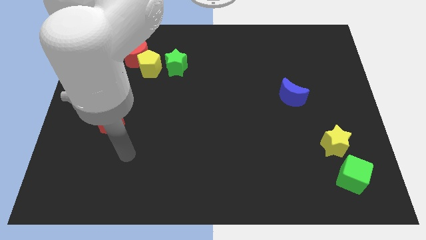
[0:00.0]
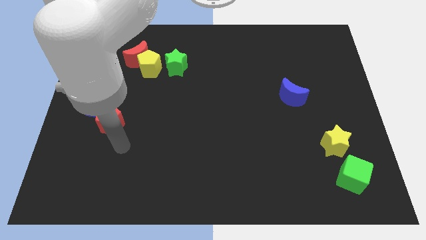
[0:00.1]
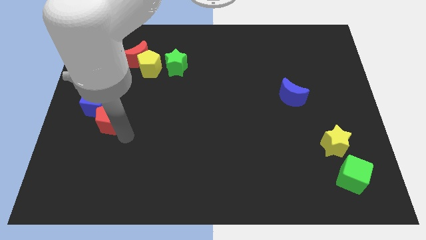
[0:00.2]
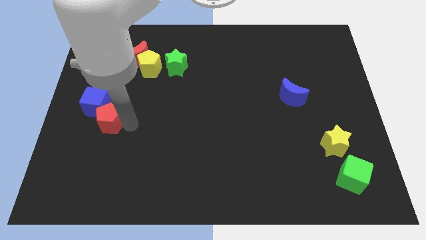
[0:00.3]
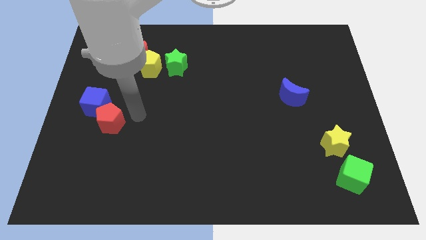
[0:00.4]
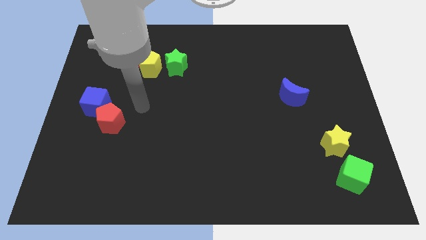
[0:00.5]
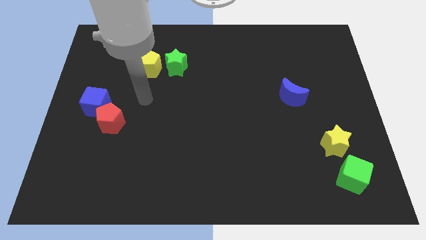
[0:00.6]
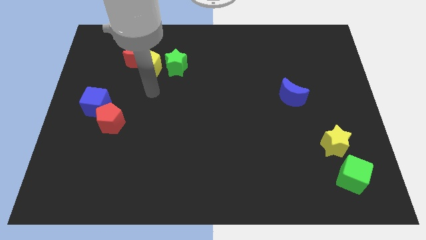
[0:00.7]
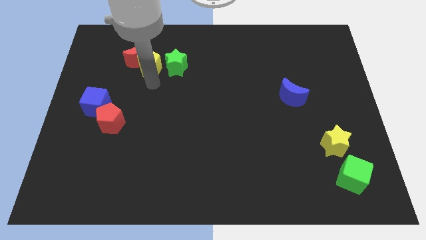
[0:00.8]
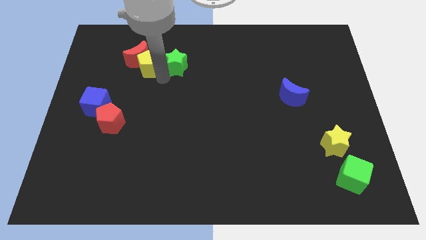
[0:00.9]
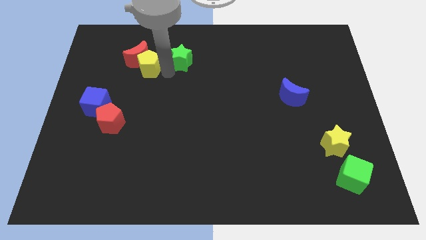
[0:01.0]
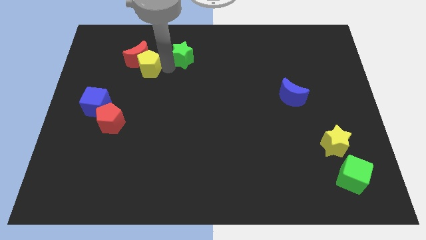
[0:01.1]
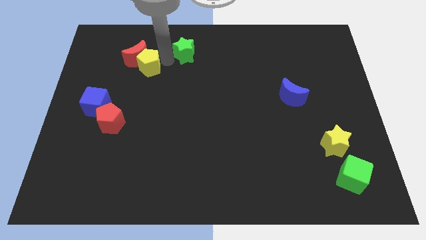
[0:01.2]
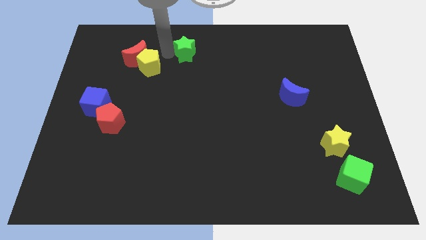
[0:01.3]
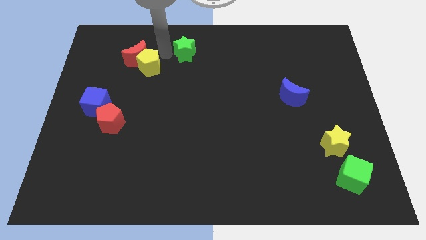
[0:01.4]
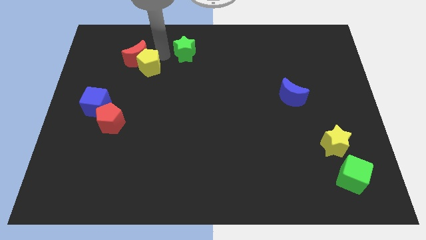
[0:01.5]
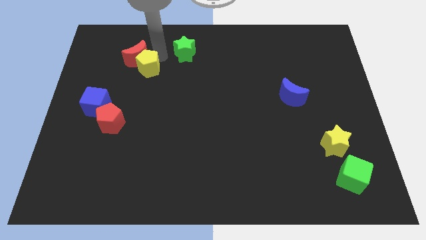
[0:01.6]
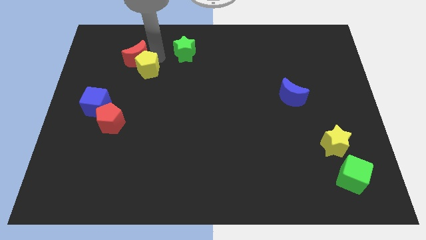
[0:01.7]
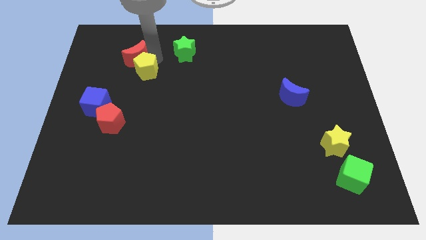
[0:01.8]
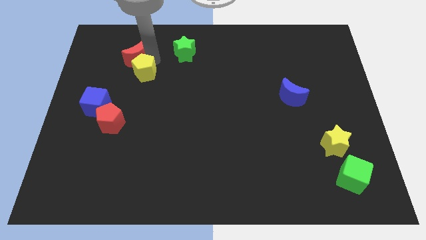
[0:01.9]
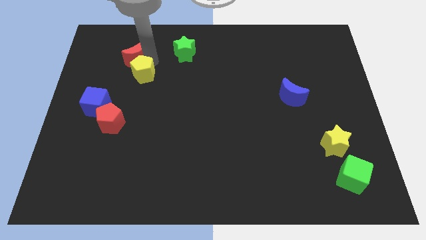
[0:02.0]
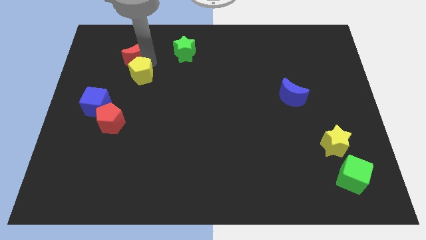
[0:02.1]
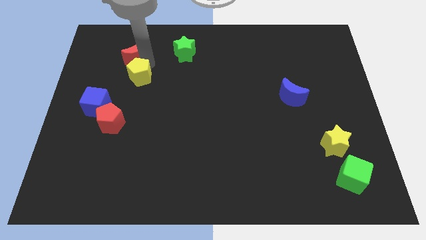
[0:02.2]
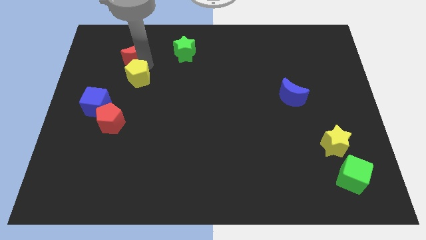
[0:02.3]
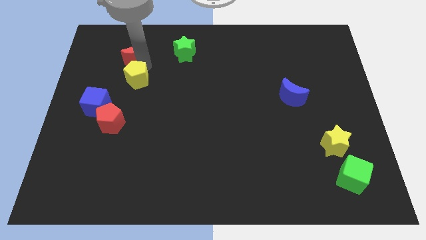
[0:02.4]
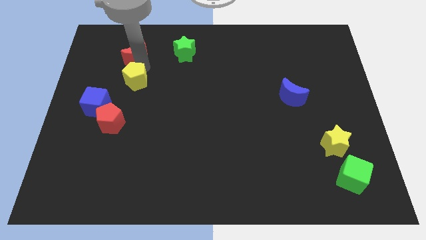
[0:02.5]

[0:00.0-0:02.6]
pull the yellow pentagon apart from the red moon and green star

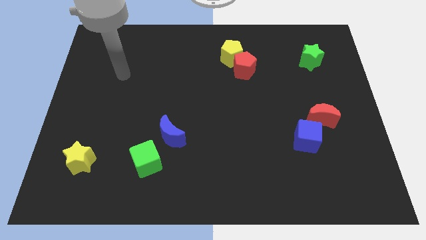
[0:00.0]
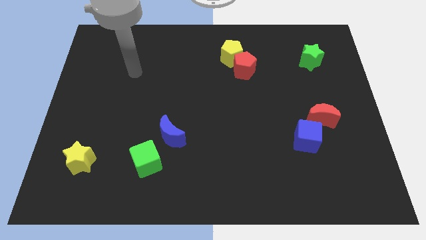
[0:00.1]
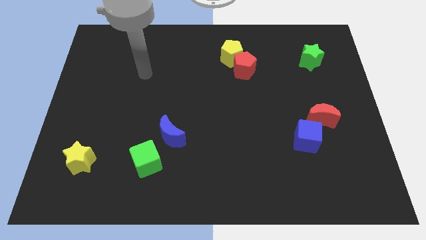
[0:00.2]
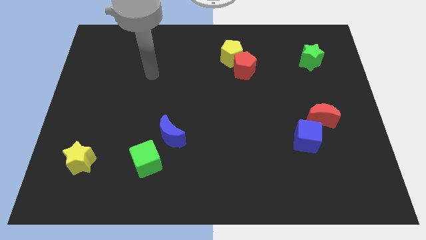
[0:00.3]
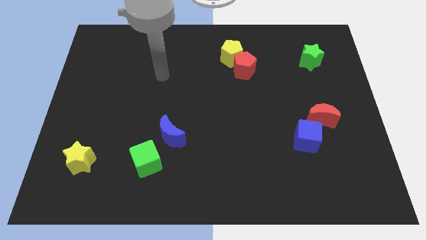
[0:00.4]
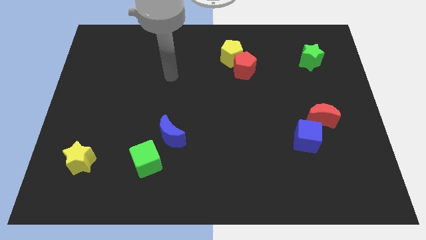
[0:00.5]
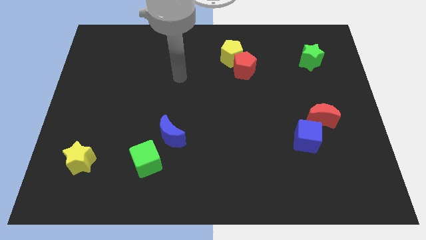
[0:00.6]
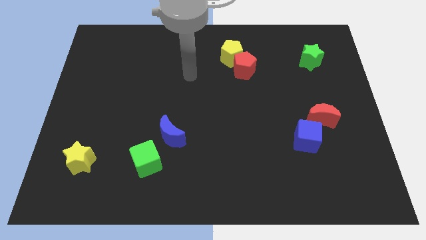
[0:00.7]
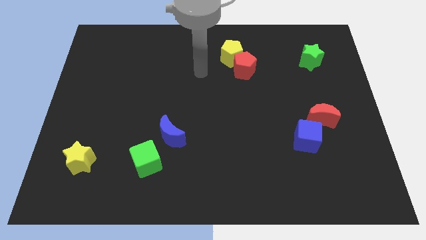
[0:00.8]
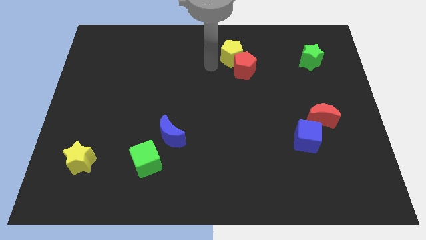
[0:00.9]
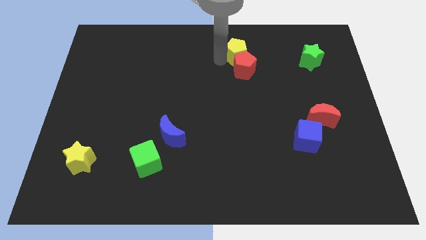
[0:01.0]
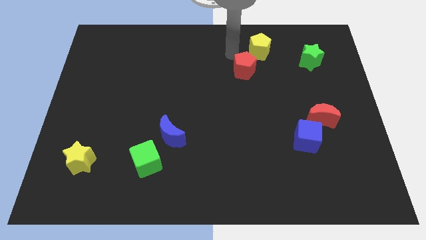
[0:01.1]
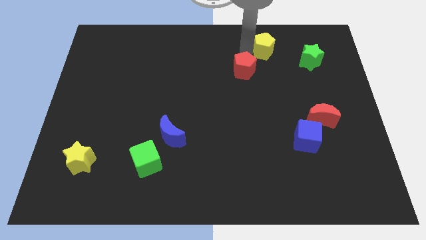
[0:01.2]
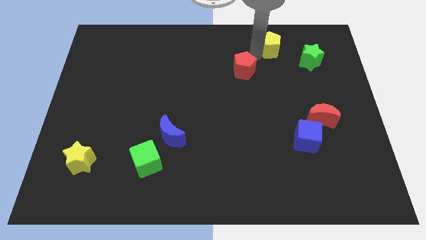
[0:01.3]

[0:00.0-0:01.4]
pull the red pentagon apart from the yellow pentagon

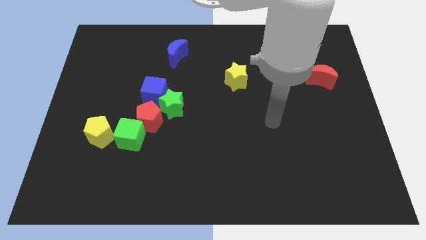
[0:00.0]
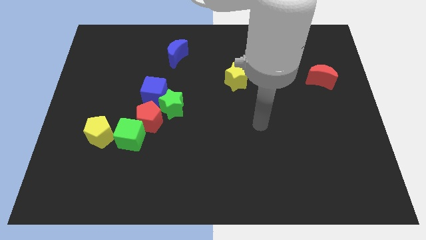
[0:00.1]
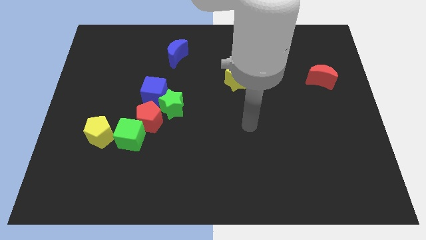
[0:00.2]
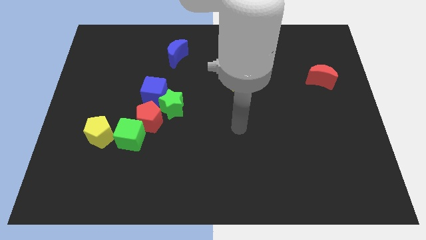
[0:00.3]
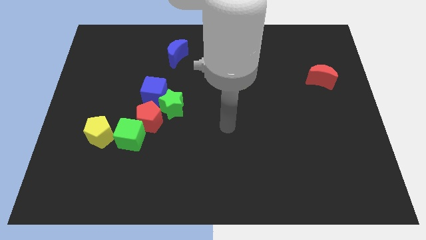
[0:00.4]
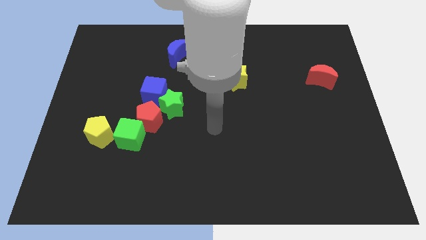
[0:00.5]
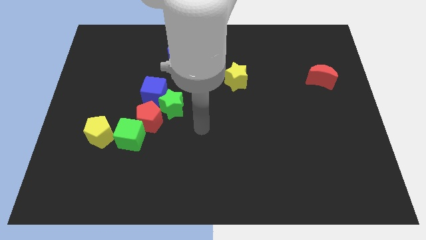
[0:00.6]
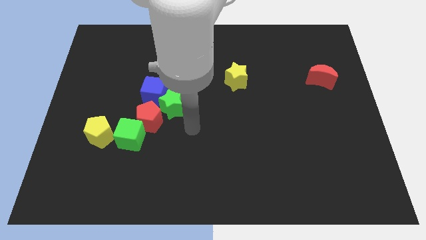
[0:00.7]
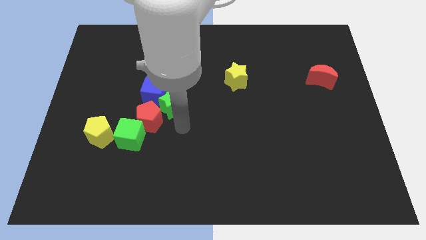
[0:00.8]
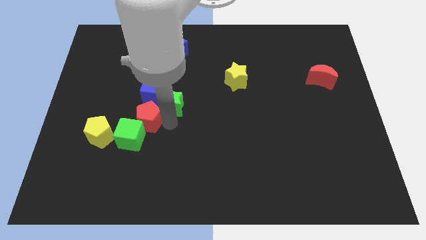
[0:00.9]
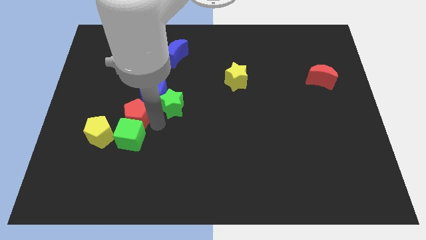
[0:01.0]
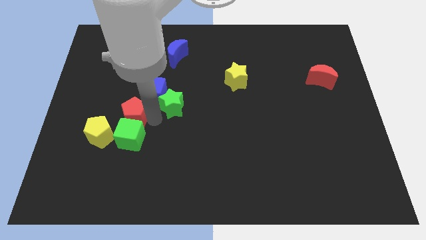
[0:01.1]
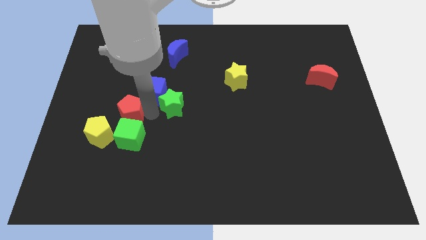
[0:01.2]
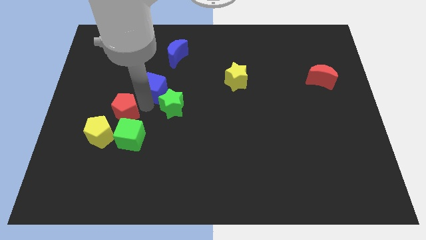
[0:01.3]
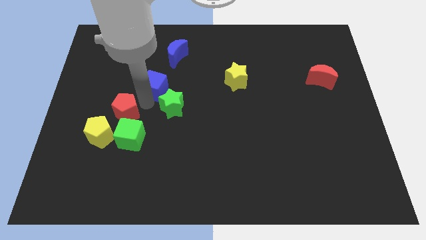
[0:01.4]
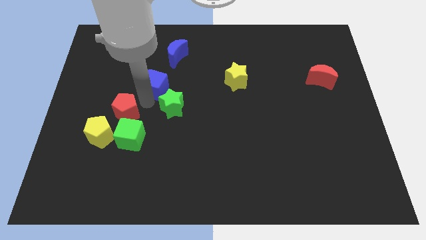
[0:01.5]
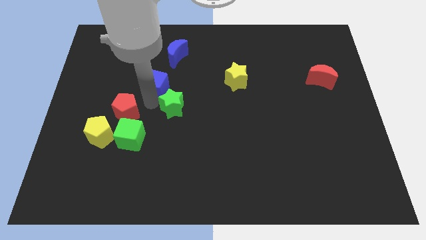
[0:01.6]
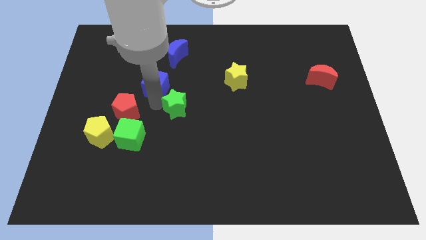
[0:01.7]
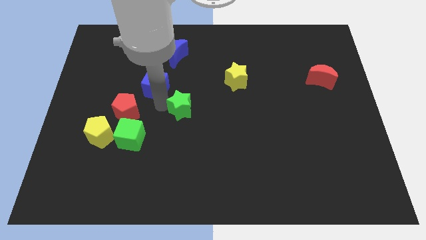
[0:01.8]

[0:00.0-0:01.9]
pull the green star apart from the blue cube and red pentagon

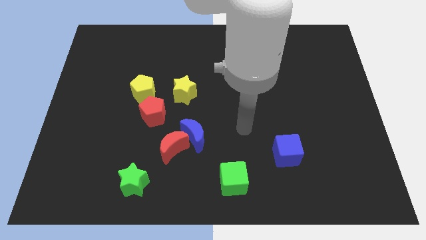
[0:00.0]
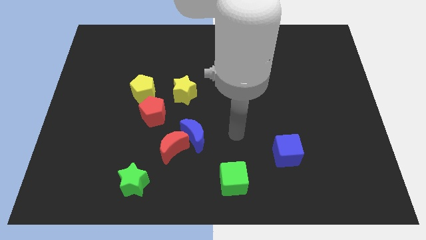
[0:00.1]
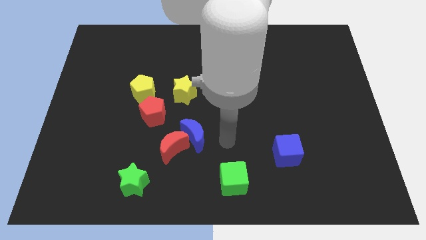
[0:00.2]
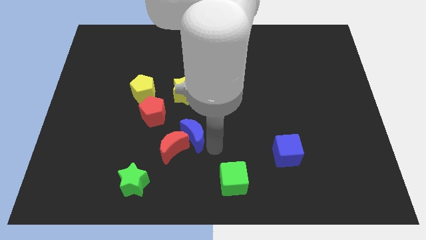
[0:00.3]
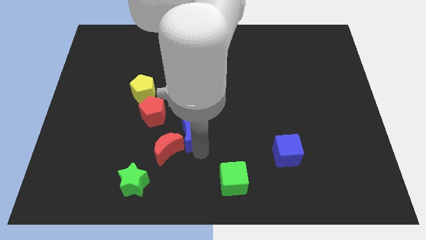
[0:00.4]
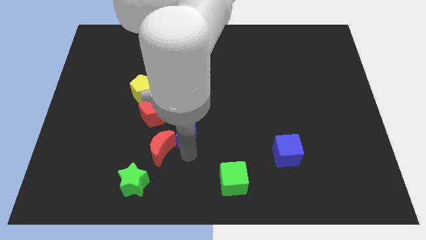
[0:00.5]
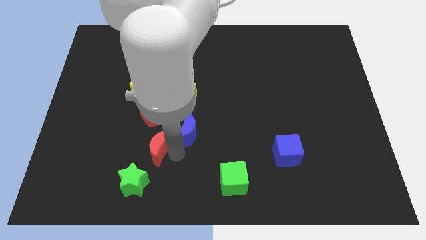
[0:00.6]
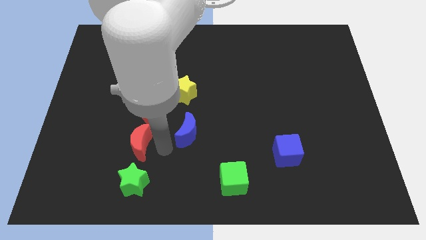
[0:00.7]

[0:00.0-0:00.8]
move the blue moon away from the red moon

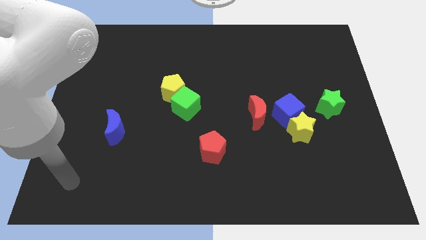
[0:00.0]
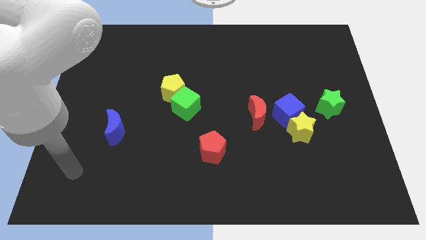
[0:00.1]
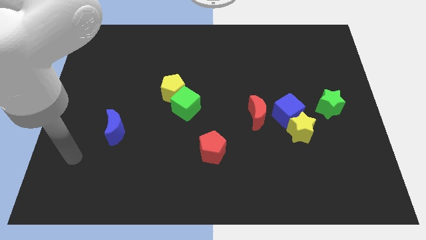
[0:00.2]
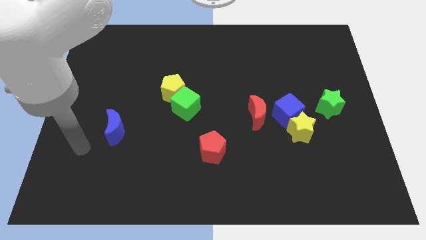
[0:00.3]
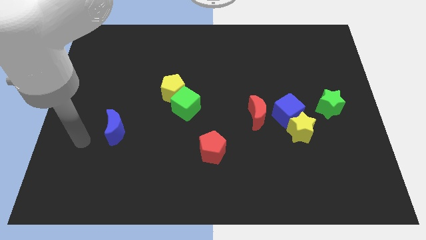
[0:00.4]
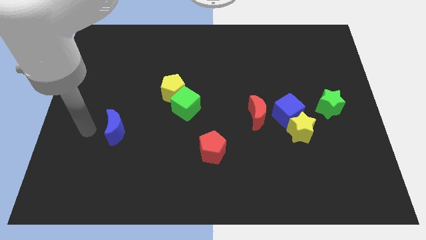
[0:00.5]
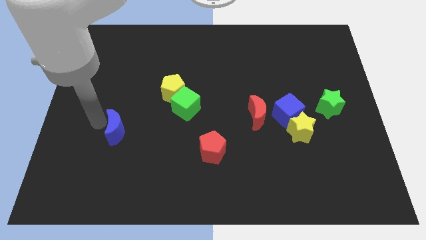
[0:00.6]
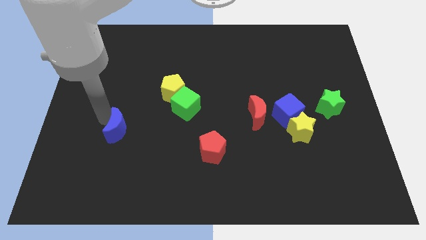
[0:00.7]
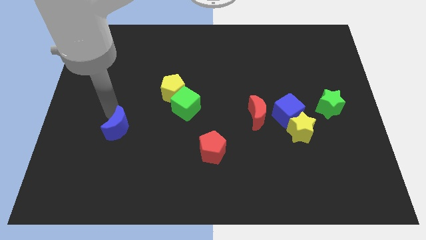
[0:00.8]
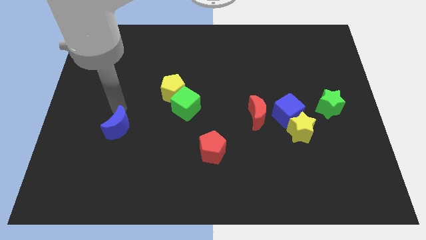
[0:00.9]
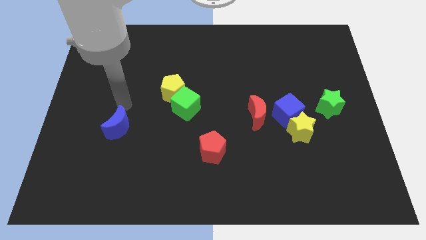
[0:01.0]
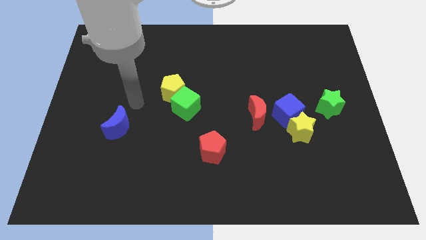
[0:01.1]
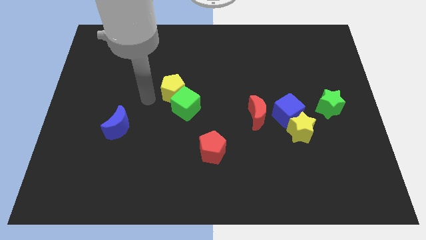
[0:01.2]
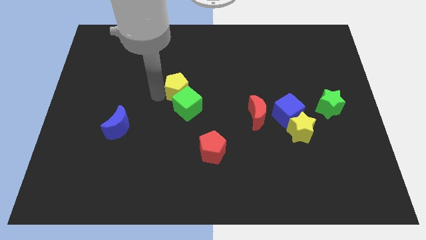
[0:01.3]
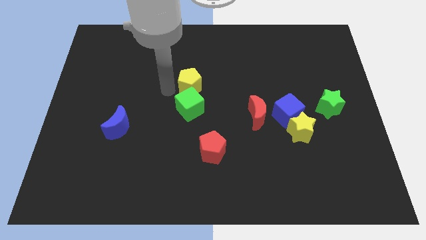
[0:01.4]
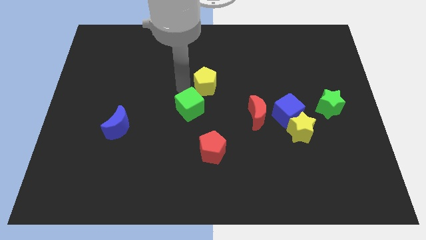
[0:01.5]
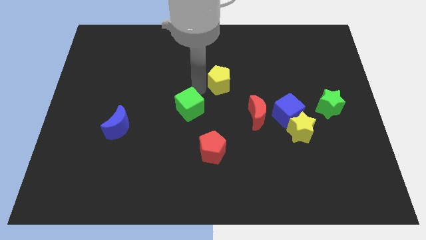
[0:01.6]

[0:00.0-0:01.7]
pull the green cube apart from the yellow pentagon

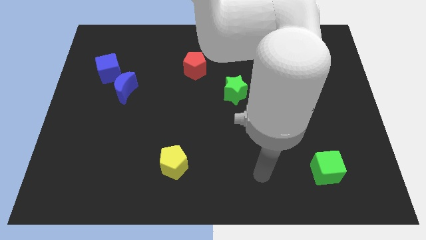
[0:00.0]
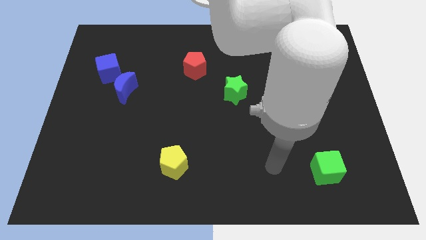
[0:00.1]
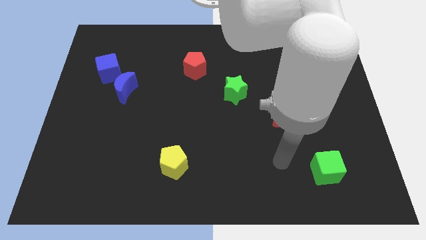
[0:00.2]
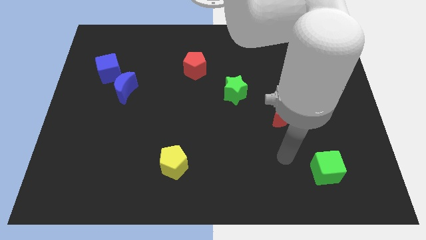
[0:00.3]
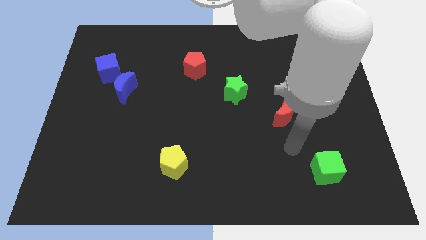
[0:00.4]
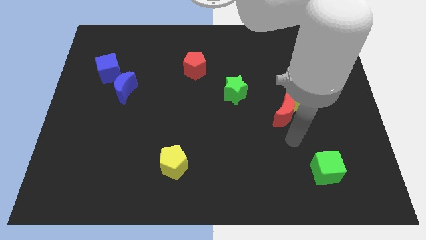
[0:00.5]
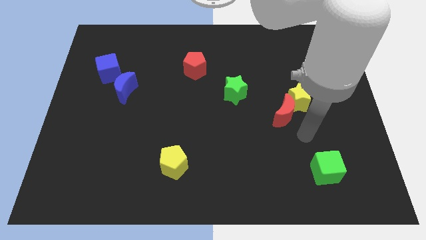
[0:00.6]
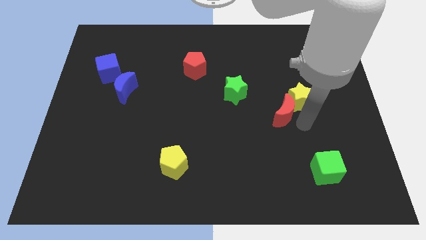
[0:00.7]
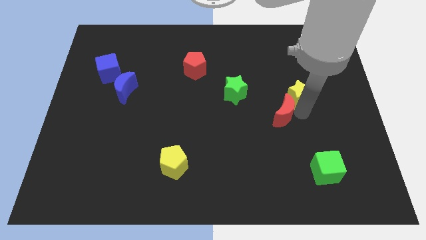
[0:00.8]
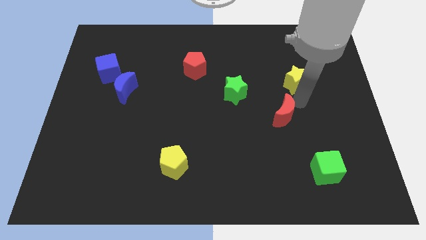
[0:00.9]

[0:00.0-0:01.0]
separate the red moon from the yellow star
